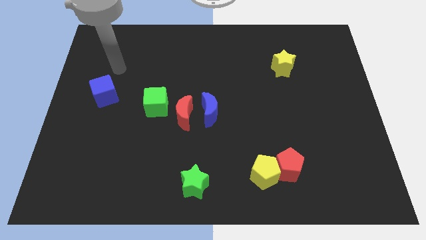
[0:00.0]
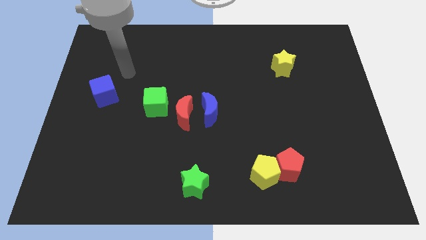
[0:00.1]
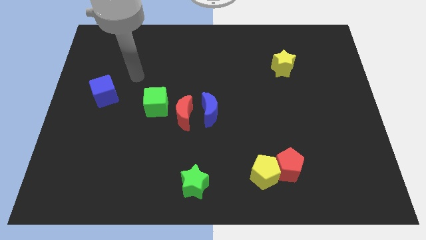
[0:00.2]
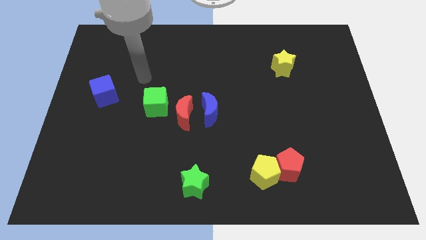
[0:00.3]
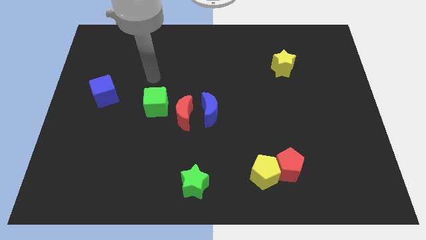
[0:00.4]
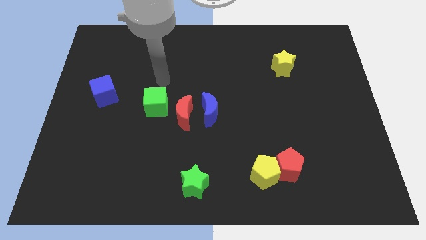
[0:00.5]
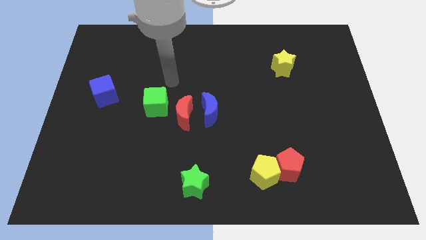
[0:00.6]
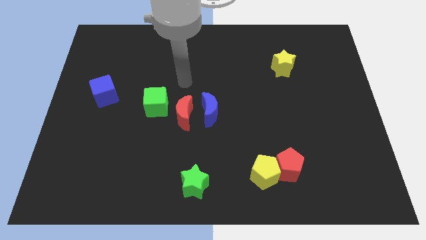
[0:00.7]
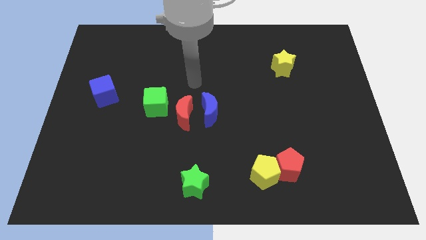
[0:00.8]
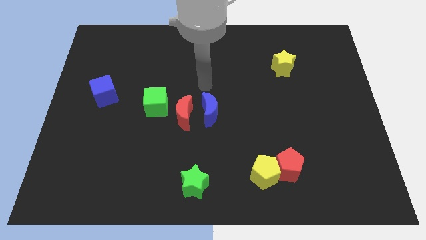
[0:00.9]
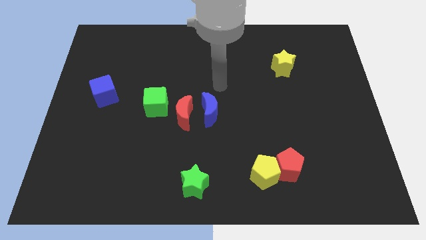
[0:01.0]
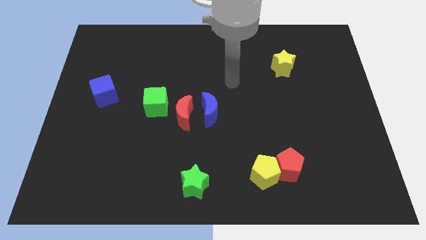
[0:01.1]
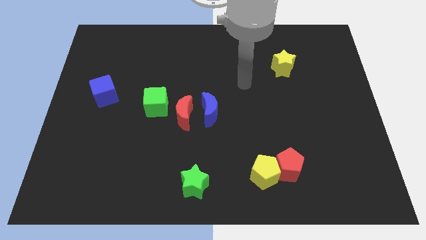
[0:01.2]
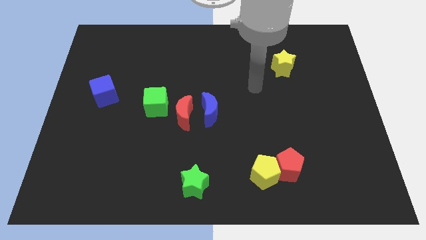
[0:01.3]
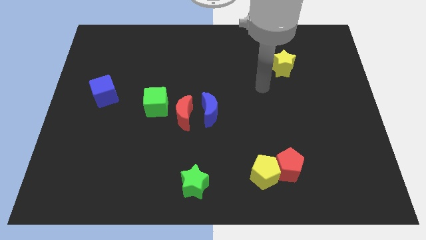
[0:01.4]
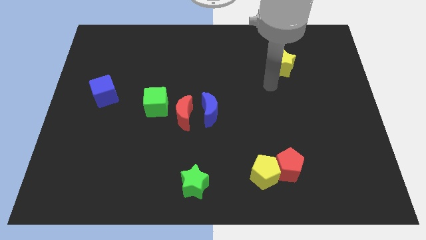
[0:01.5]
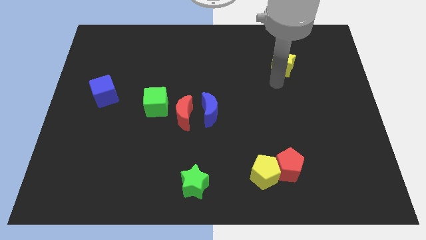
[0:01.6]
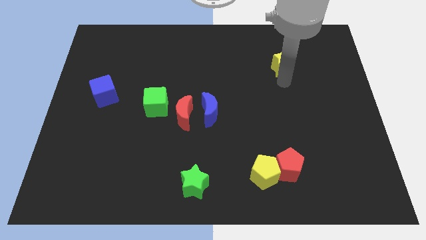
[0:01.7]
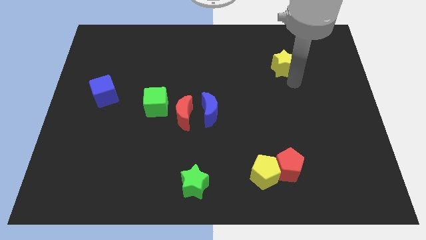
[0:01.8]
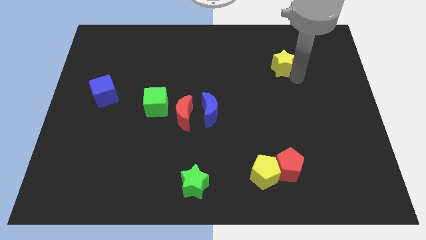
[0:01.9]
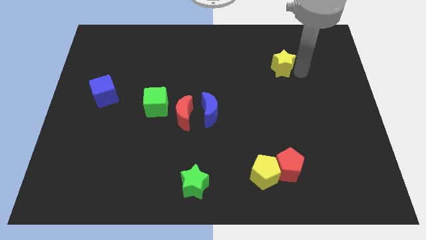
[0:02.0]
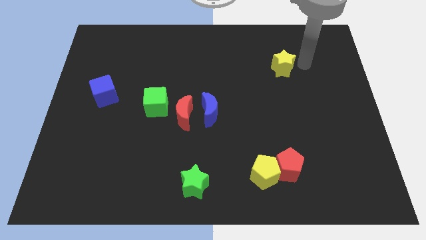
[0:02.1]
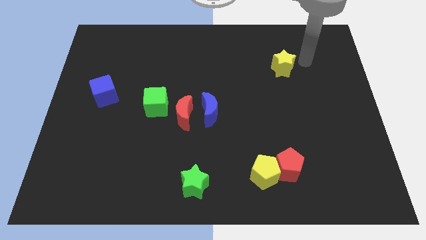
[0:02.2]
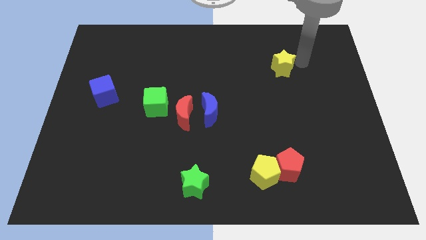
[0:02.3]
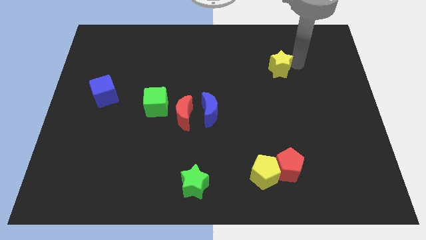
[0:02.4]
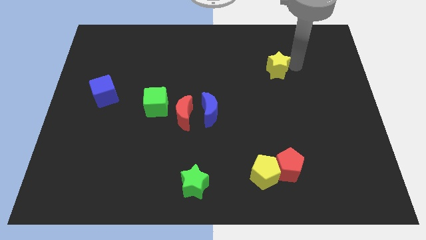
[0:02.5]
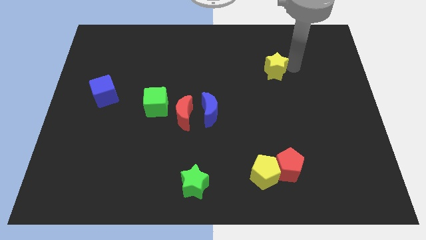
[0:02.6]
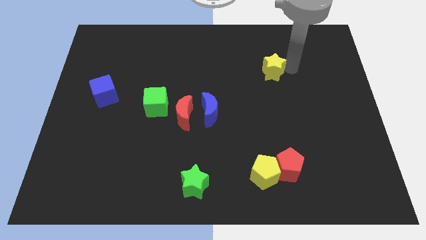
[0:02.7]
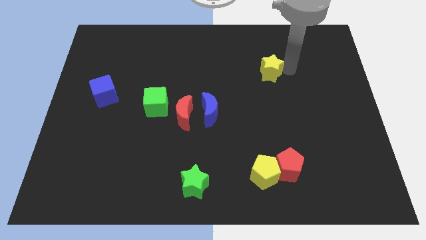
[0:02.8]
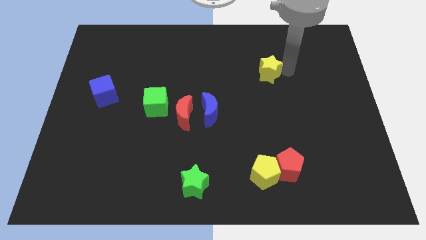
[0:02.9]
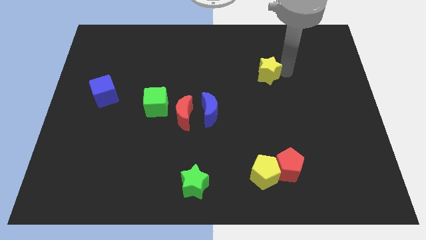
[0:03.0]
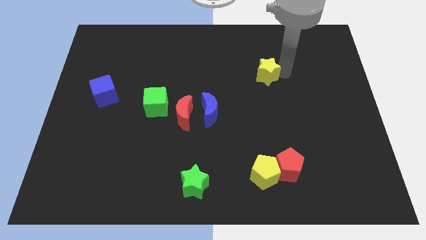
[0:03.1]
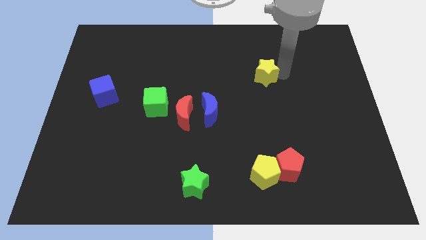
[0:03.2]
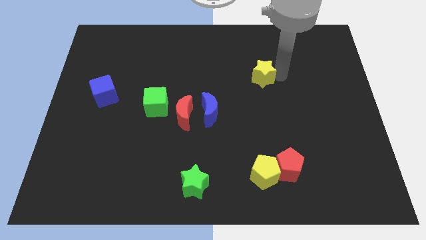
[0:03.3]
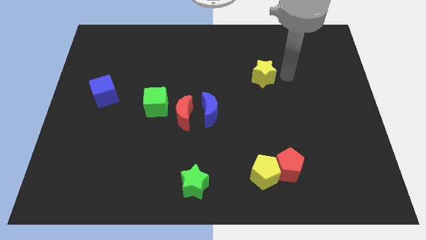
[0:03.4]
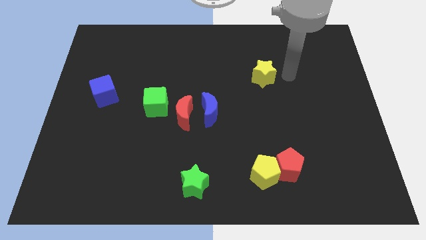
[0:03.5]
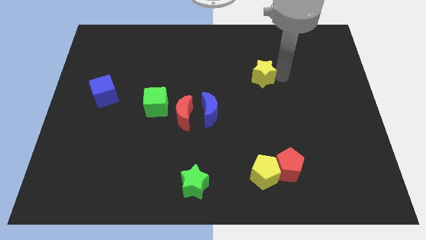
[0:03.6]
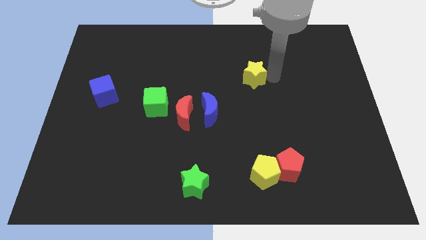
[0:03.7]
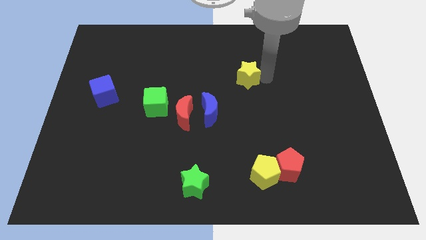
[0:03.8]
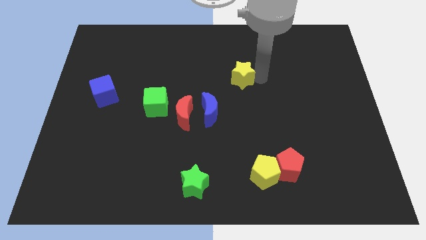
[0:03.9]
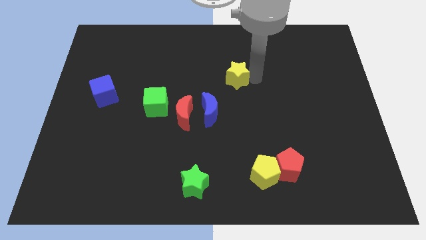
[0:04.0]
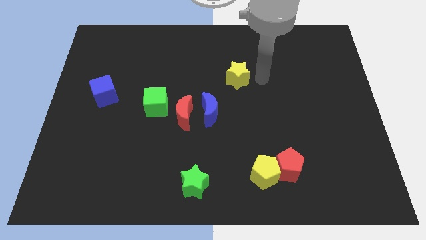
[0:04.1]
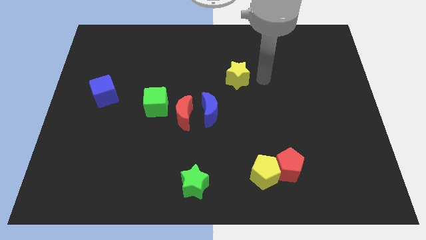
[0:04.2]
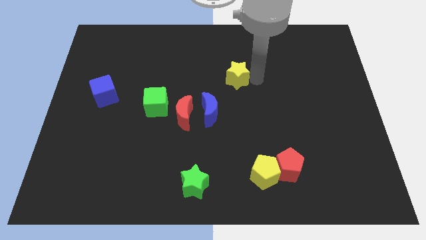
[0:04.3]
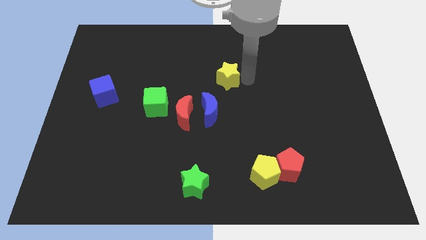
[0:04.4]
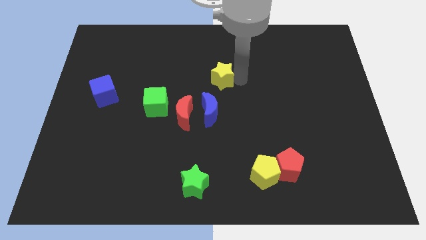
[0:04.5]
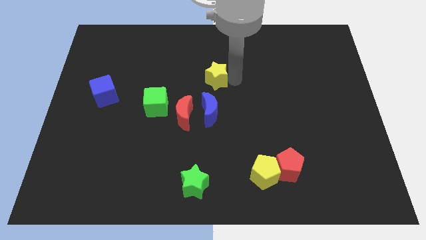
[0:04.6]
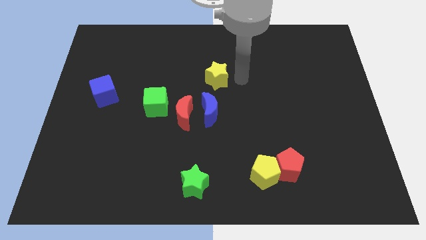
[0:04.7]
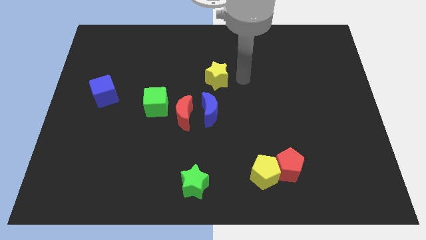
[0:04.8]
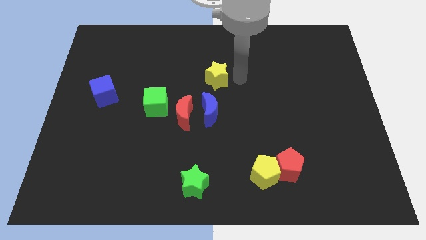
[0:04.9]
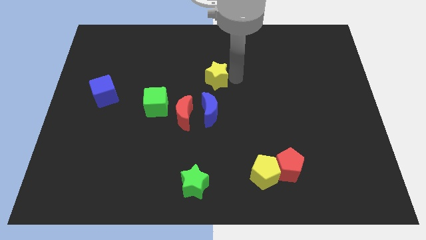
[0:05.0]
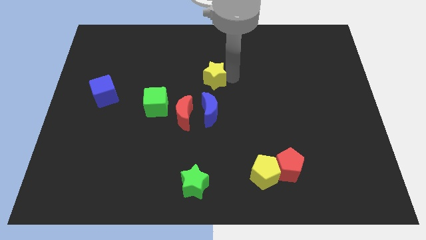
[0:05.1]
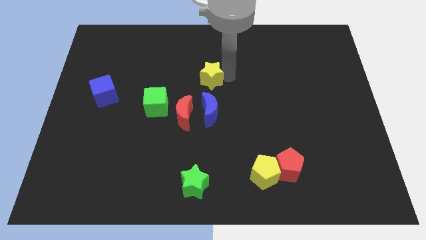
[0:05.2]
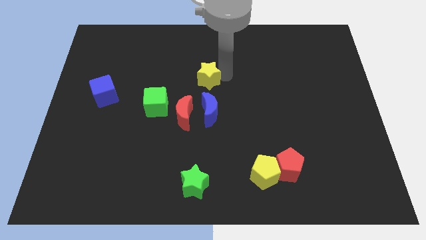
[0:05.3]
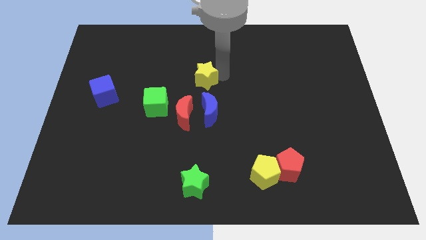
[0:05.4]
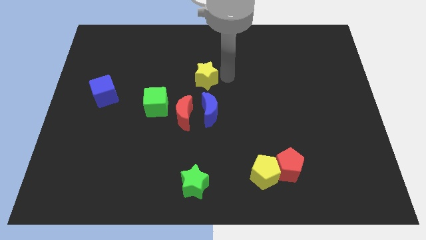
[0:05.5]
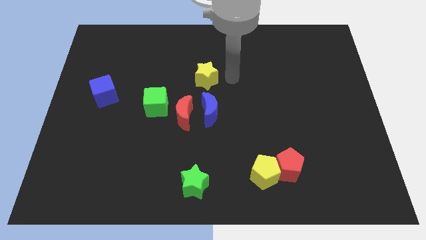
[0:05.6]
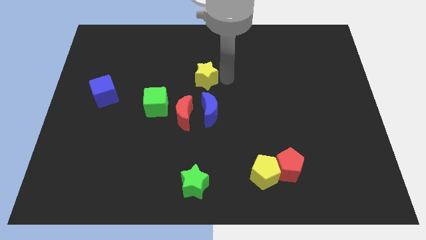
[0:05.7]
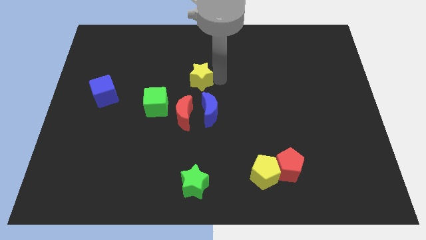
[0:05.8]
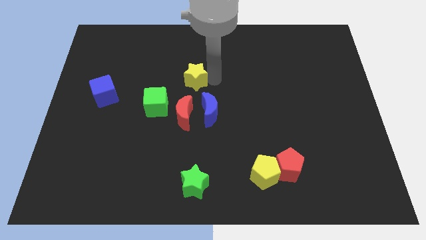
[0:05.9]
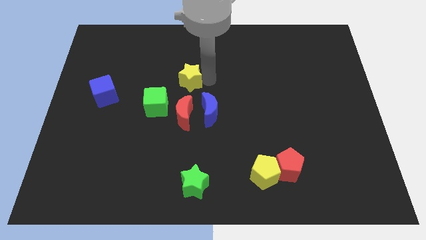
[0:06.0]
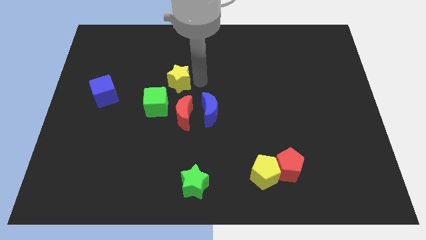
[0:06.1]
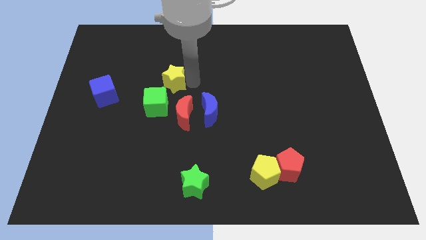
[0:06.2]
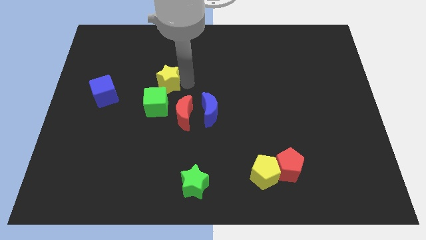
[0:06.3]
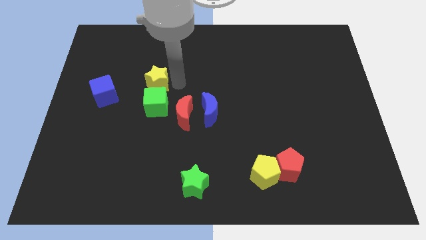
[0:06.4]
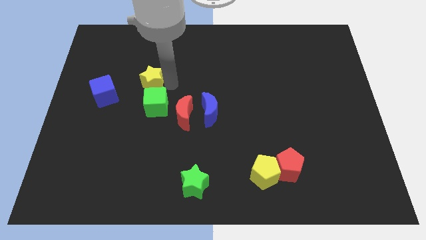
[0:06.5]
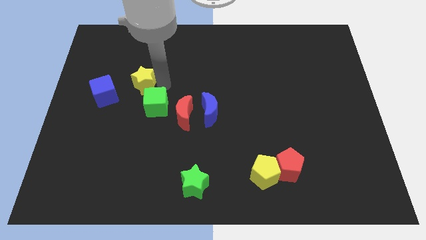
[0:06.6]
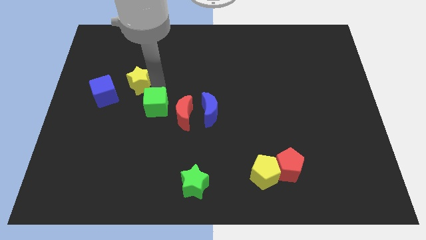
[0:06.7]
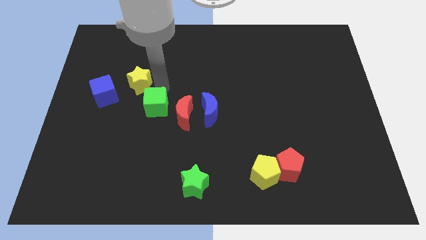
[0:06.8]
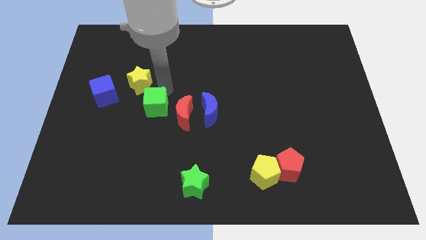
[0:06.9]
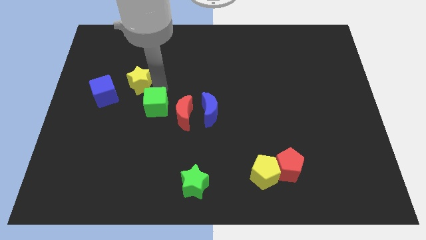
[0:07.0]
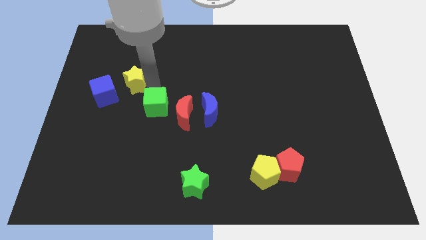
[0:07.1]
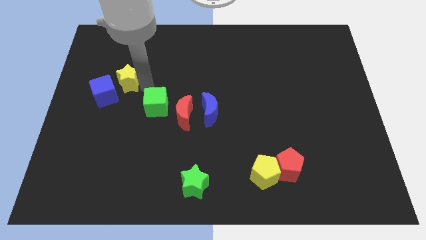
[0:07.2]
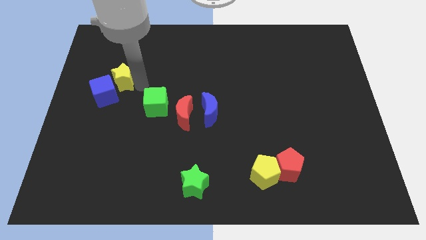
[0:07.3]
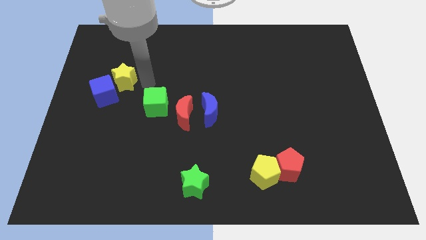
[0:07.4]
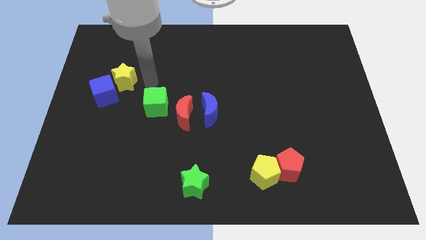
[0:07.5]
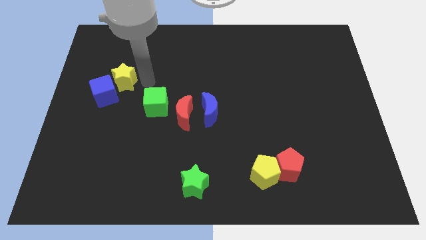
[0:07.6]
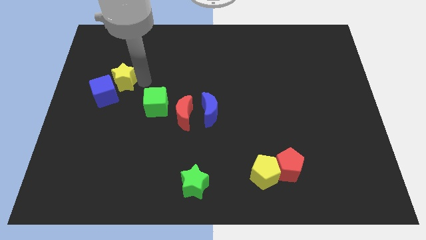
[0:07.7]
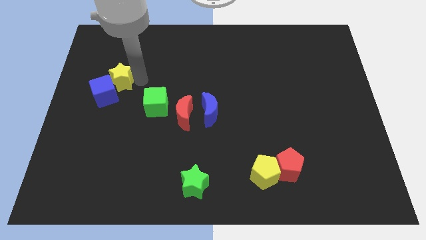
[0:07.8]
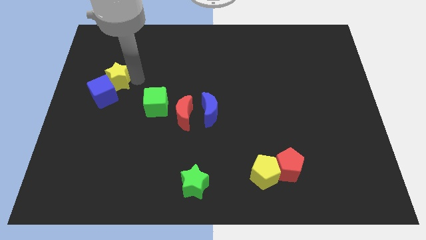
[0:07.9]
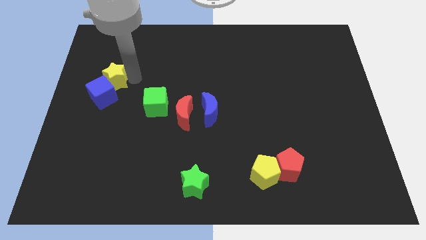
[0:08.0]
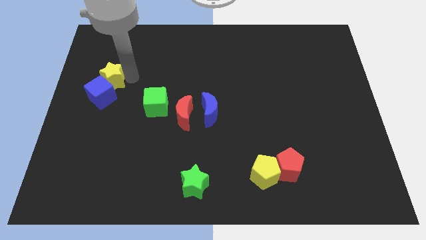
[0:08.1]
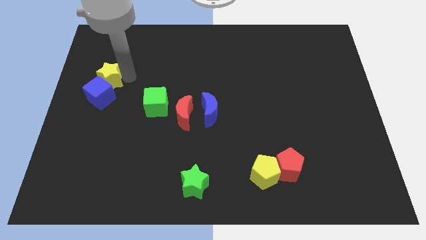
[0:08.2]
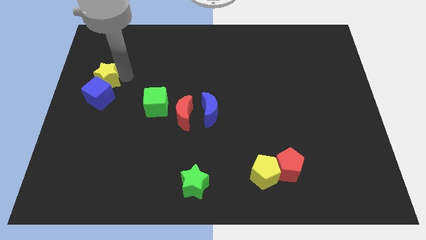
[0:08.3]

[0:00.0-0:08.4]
move the yellow star to the left side
